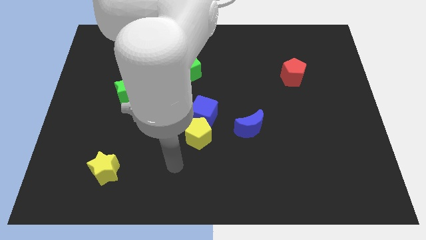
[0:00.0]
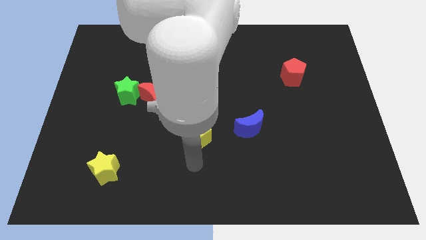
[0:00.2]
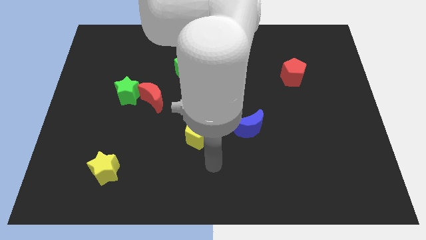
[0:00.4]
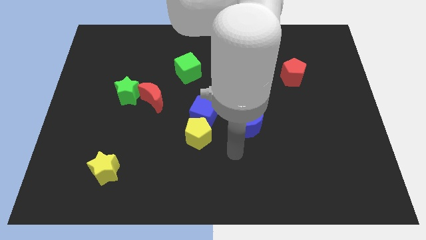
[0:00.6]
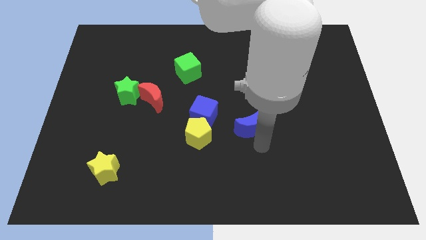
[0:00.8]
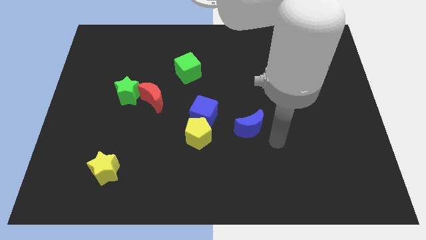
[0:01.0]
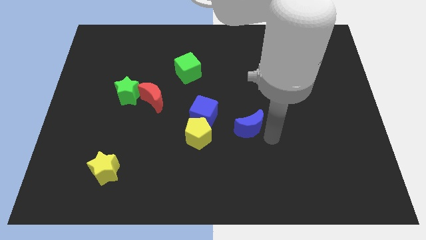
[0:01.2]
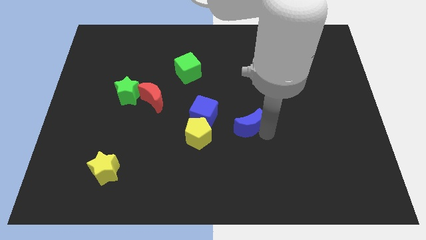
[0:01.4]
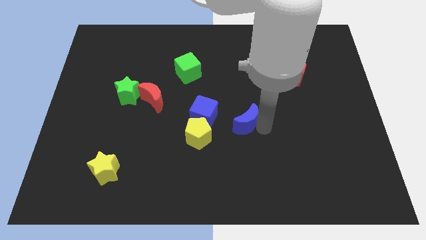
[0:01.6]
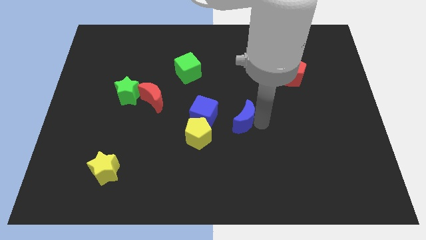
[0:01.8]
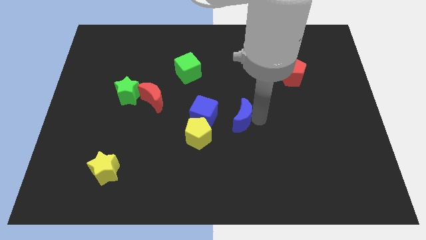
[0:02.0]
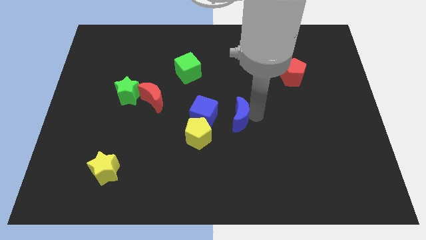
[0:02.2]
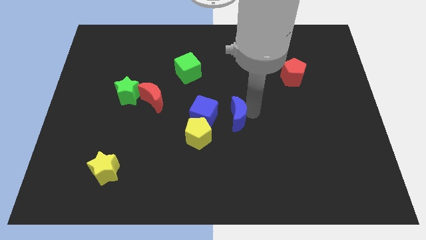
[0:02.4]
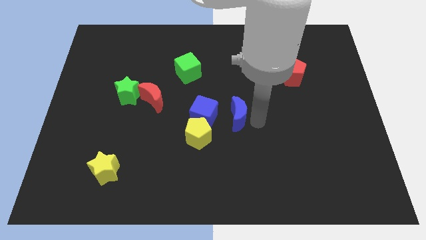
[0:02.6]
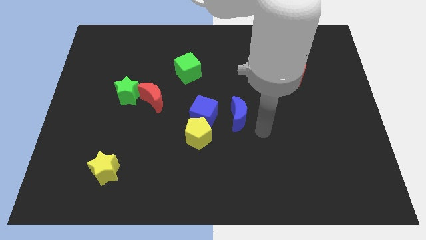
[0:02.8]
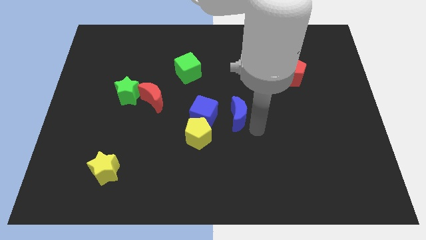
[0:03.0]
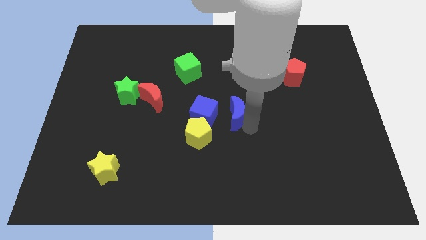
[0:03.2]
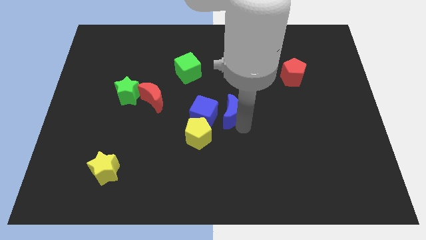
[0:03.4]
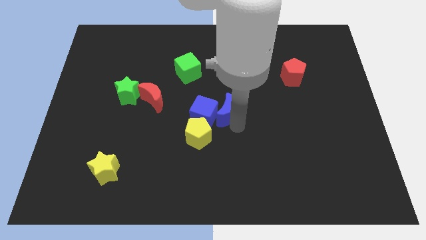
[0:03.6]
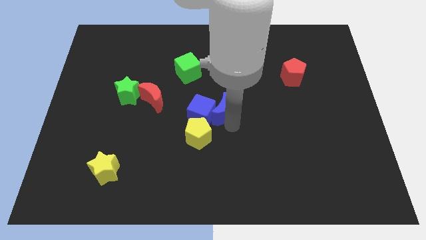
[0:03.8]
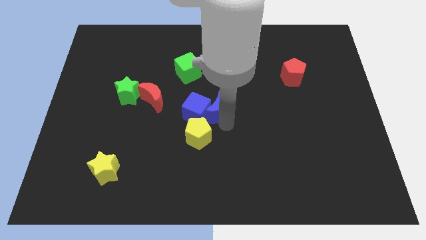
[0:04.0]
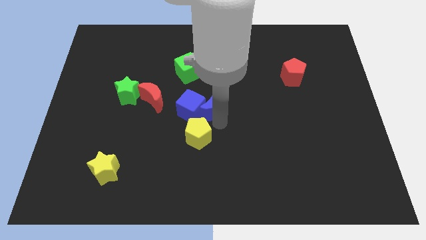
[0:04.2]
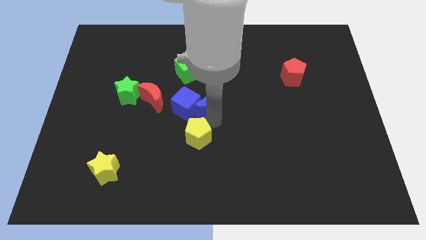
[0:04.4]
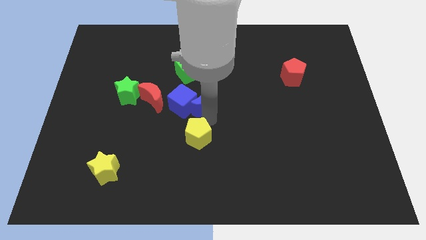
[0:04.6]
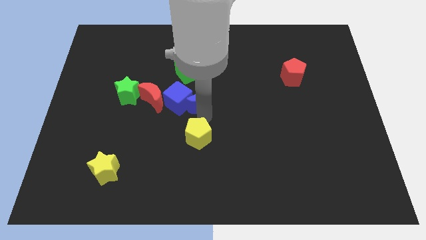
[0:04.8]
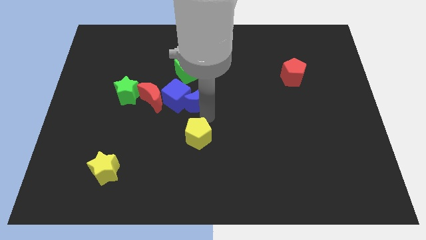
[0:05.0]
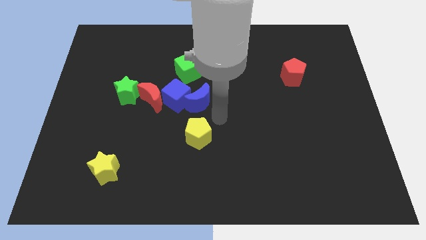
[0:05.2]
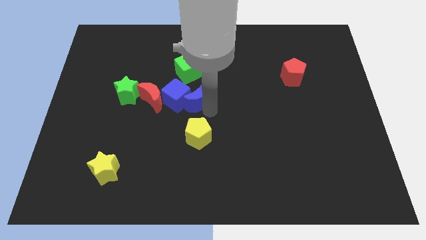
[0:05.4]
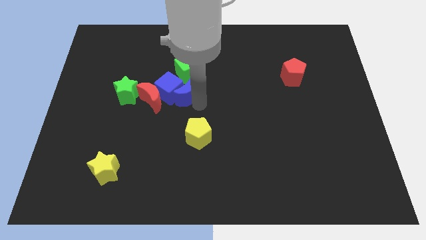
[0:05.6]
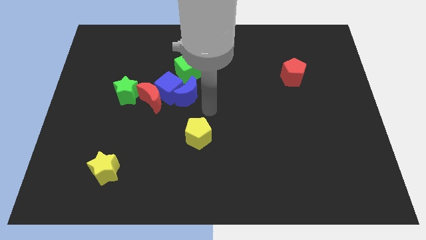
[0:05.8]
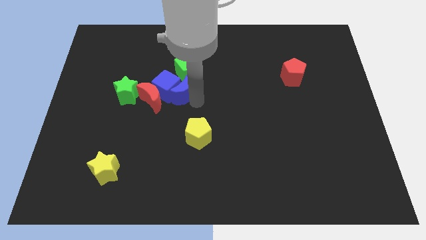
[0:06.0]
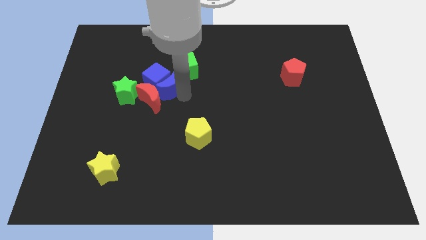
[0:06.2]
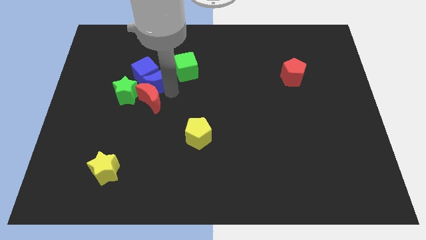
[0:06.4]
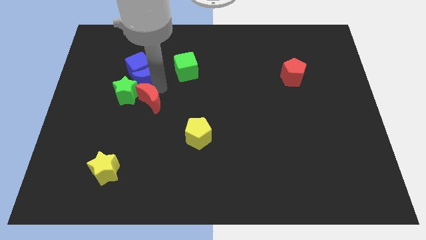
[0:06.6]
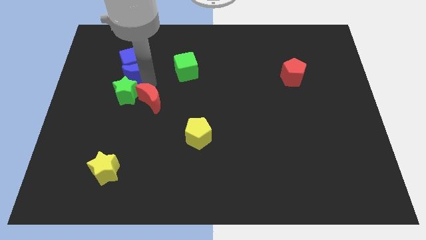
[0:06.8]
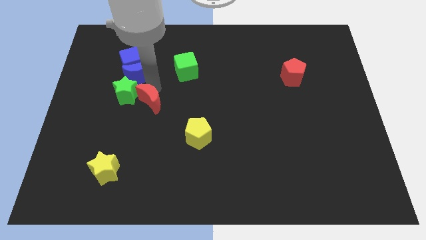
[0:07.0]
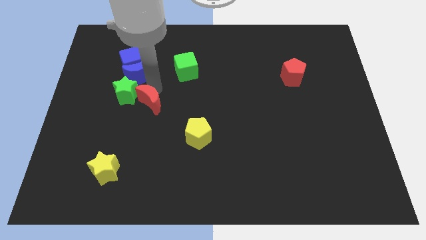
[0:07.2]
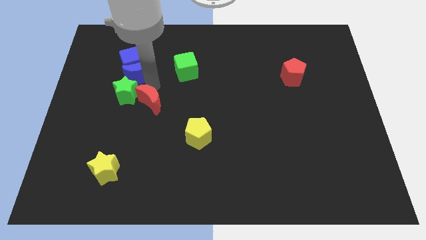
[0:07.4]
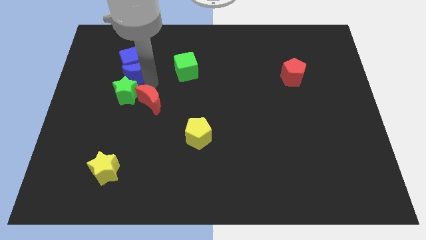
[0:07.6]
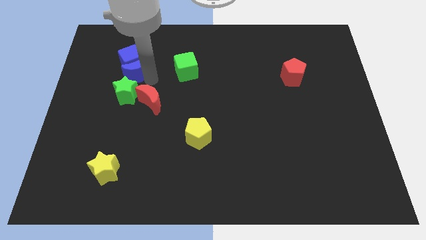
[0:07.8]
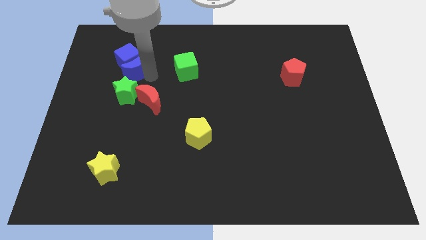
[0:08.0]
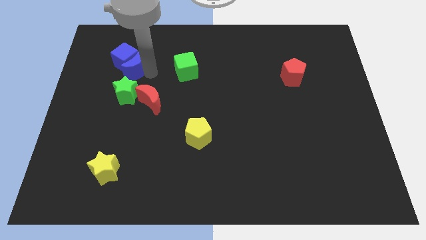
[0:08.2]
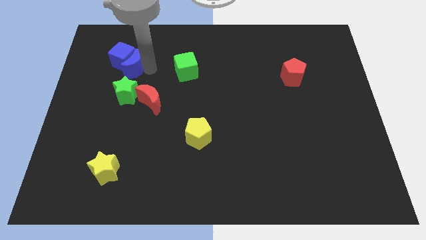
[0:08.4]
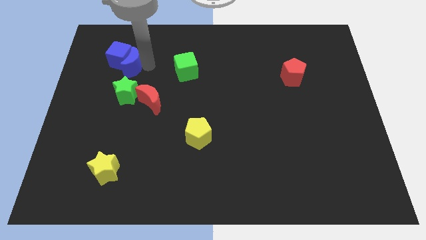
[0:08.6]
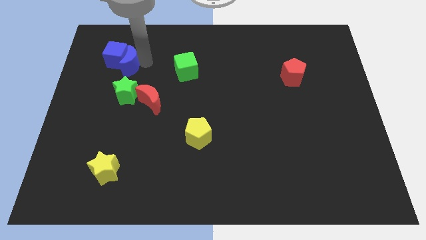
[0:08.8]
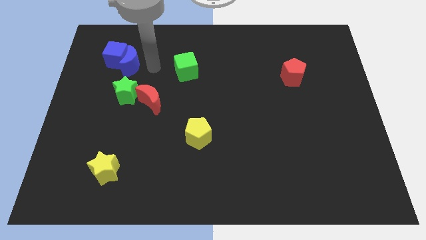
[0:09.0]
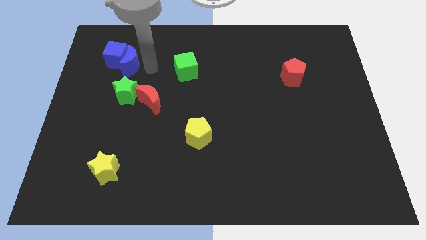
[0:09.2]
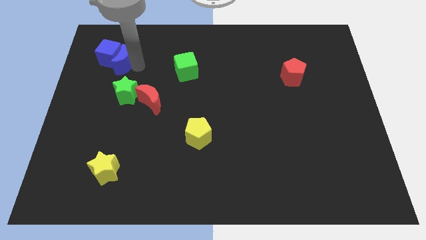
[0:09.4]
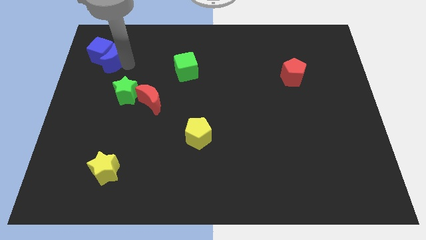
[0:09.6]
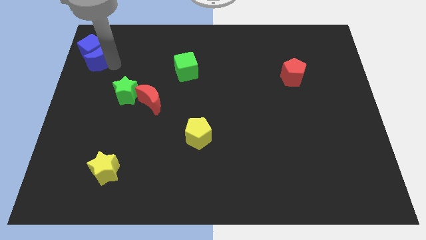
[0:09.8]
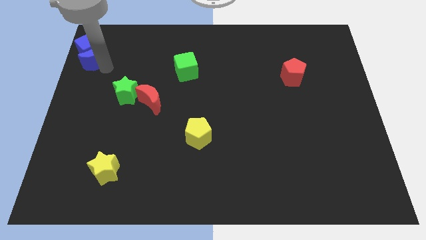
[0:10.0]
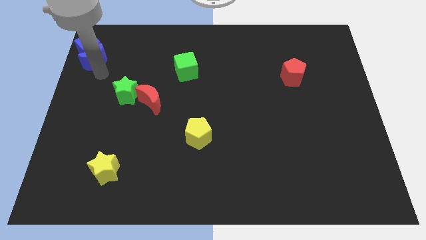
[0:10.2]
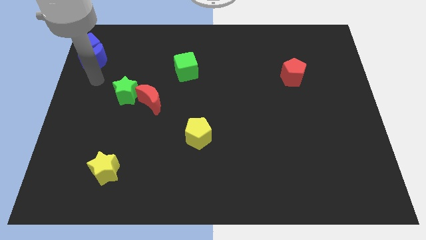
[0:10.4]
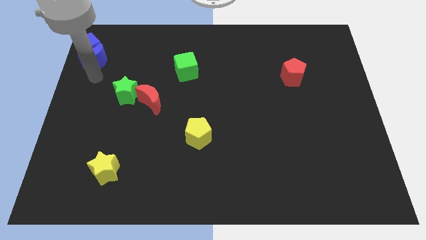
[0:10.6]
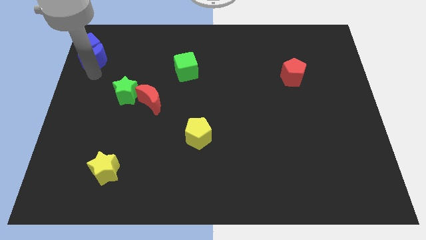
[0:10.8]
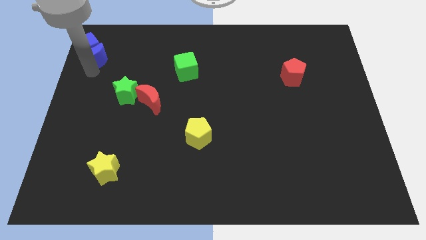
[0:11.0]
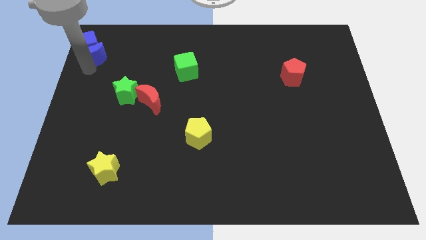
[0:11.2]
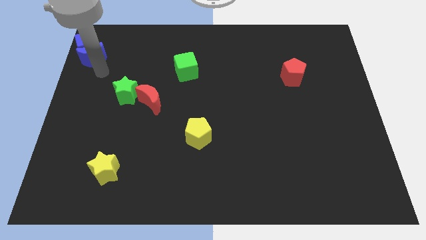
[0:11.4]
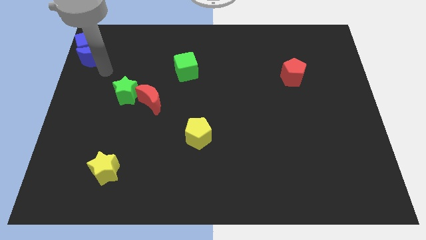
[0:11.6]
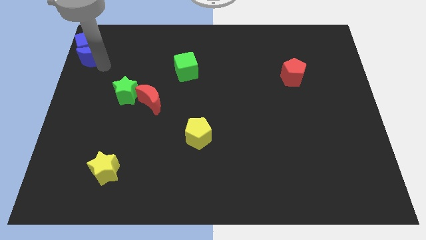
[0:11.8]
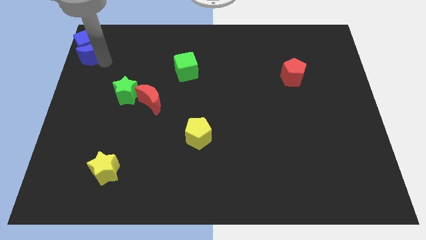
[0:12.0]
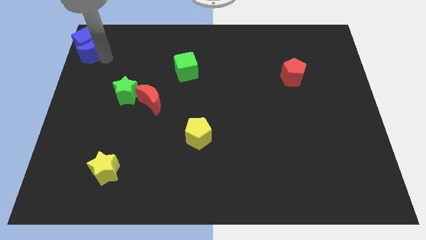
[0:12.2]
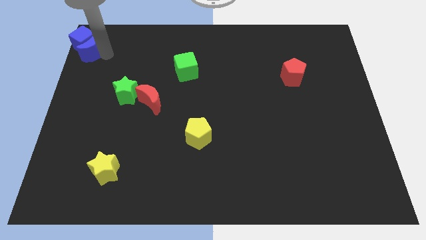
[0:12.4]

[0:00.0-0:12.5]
push the blue moon to the top left

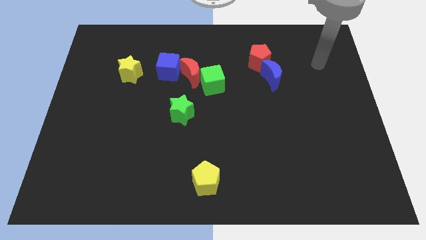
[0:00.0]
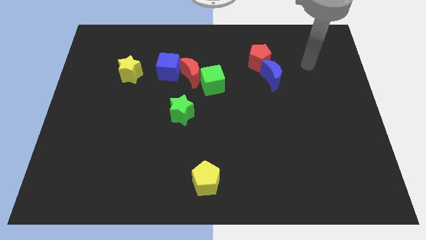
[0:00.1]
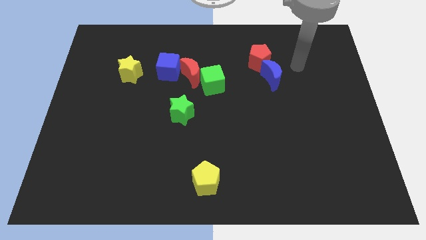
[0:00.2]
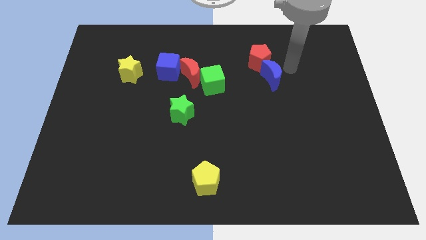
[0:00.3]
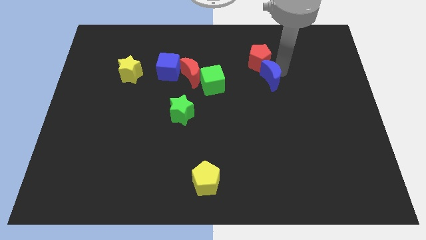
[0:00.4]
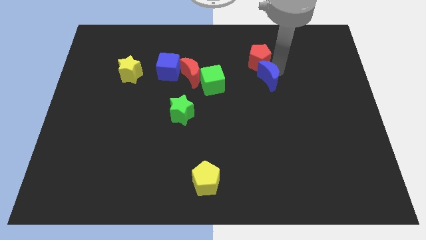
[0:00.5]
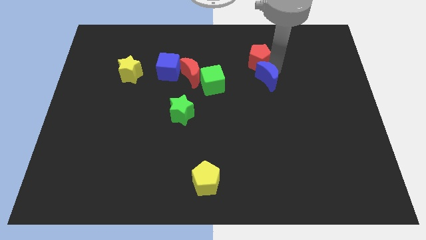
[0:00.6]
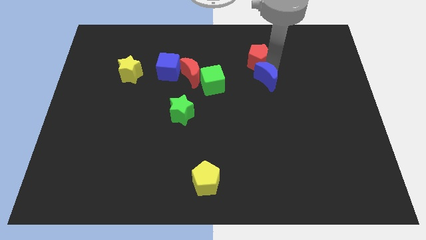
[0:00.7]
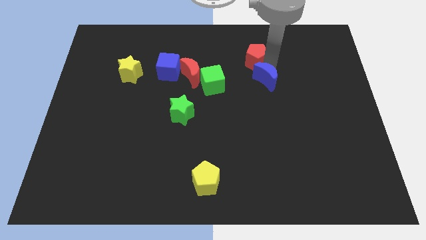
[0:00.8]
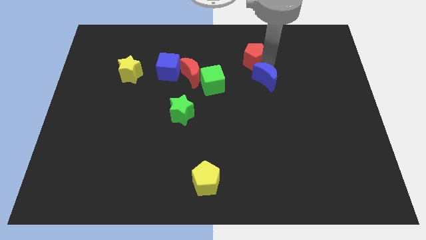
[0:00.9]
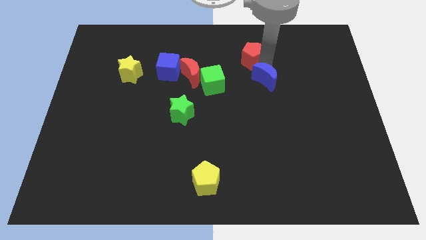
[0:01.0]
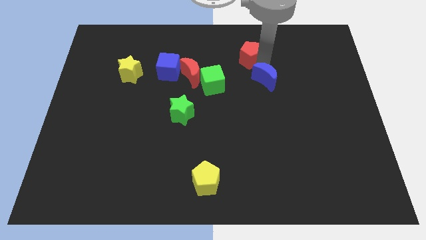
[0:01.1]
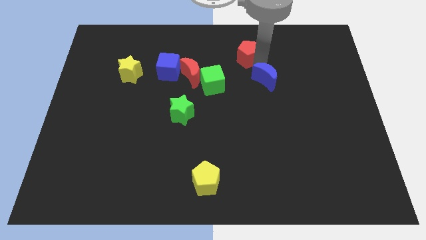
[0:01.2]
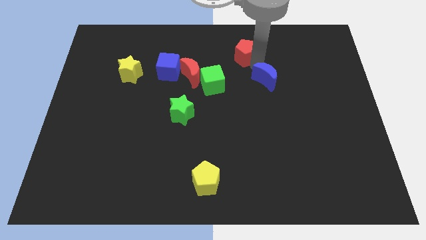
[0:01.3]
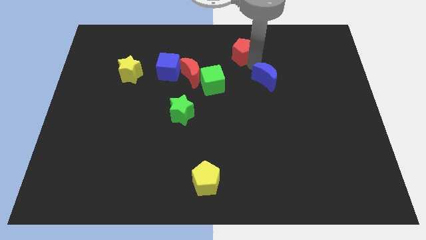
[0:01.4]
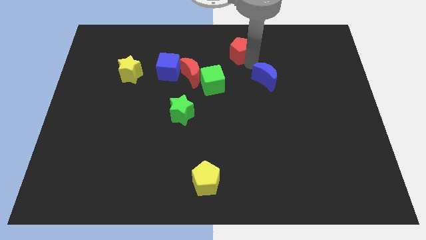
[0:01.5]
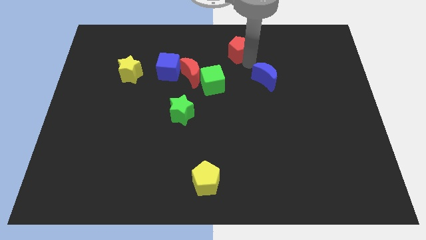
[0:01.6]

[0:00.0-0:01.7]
move the red pentagon to the towards your base
